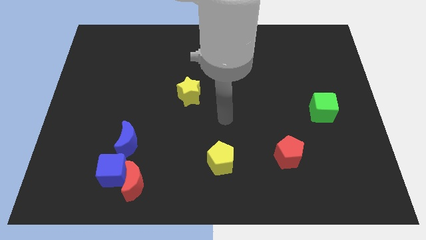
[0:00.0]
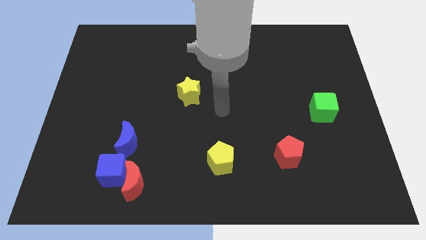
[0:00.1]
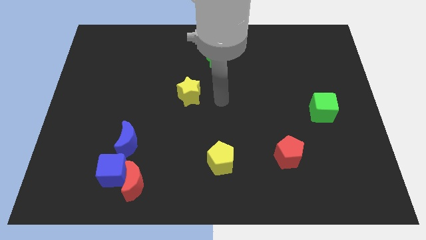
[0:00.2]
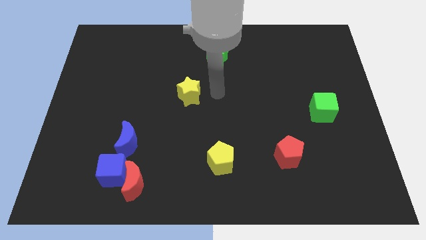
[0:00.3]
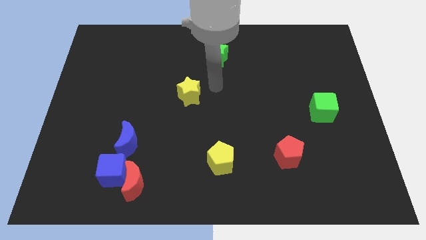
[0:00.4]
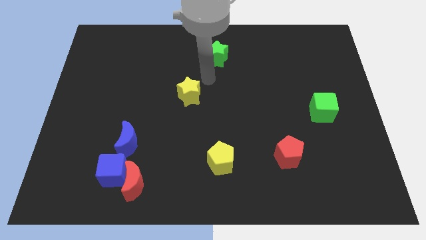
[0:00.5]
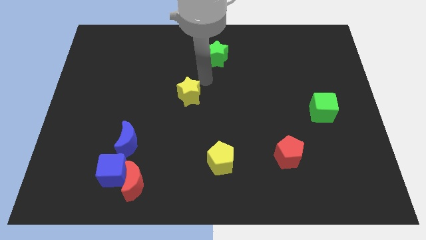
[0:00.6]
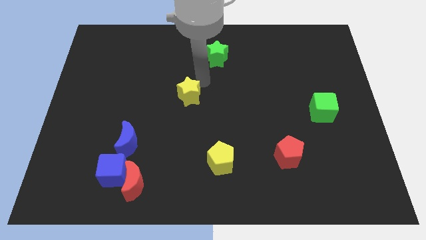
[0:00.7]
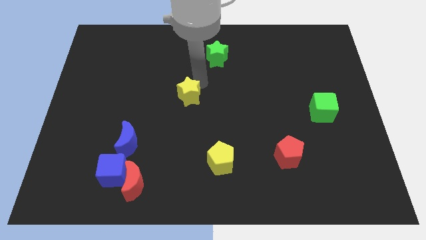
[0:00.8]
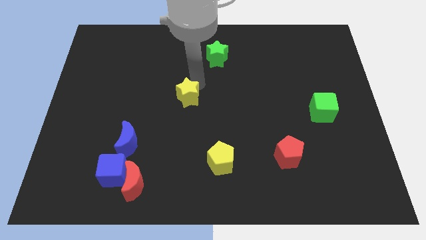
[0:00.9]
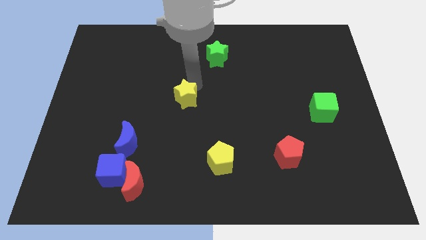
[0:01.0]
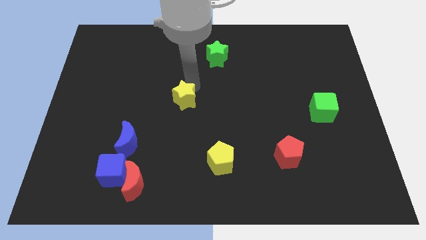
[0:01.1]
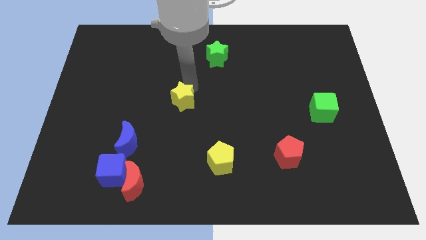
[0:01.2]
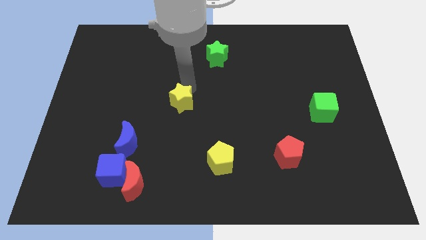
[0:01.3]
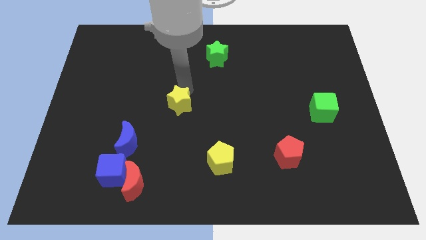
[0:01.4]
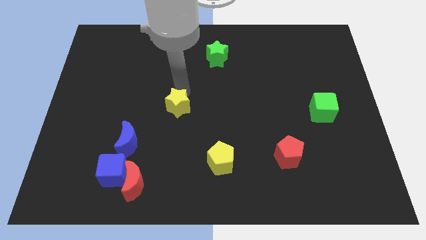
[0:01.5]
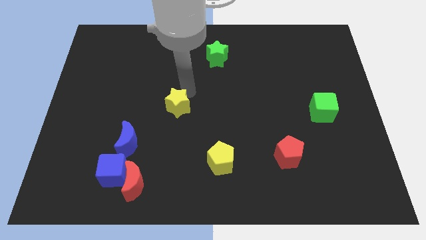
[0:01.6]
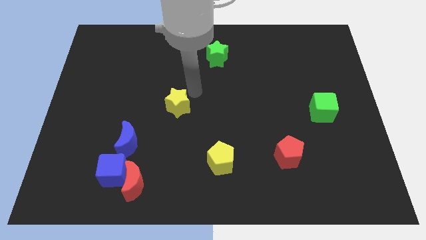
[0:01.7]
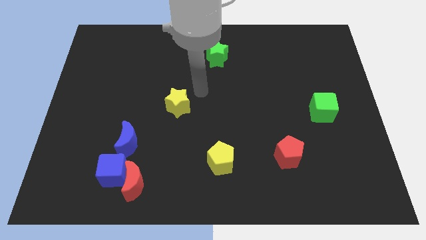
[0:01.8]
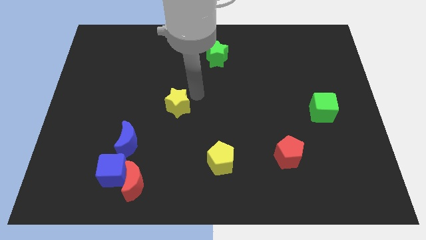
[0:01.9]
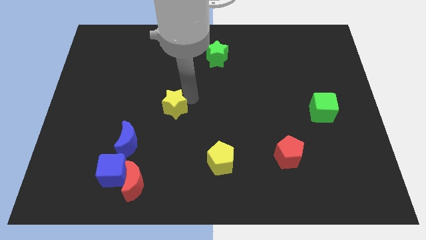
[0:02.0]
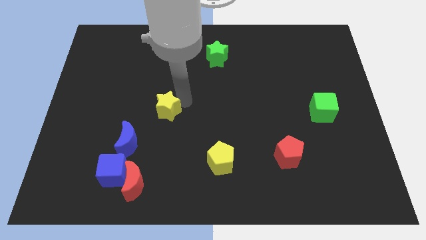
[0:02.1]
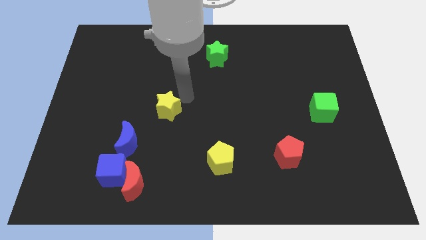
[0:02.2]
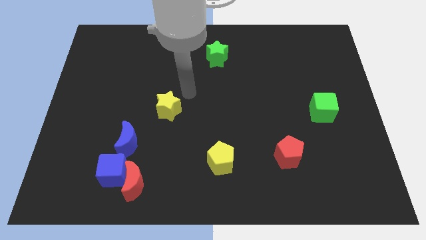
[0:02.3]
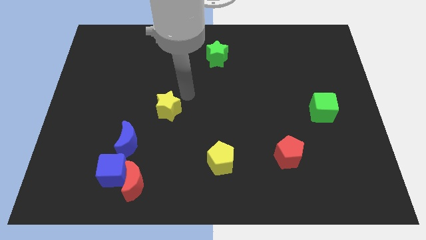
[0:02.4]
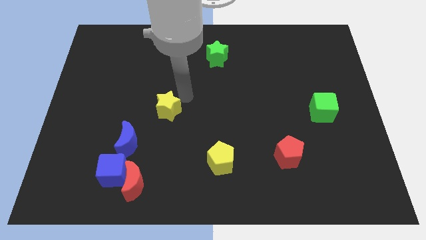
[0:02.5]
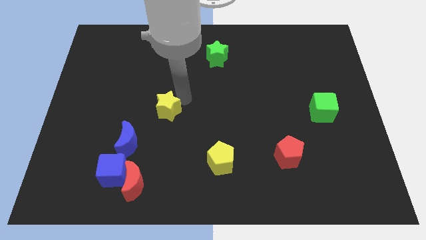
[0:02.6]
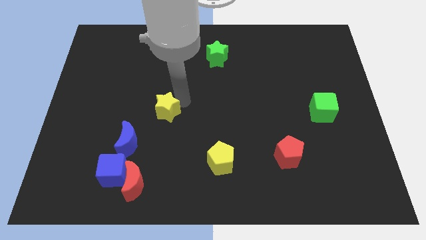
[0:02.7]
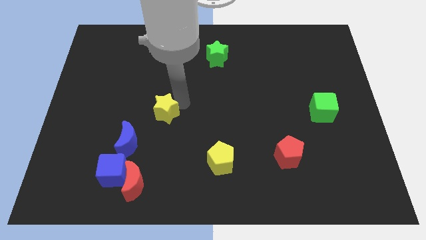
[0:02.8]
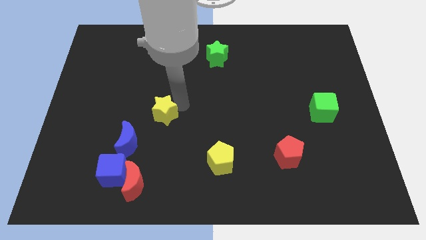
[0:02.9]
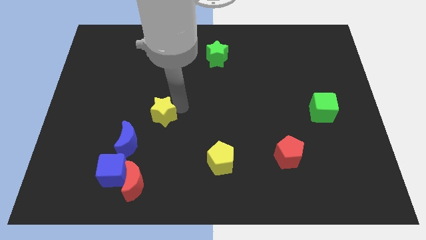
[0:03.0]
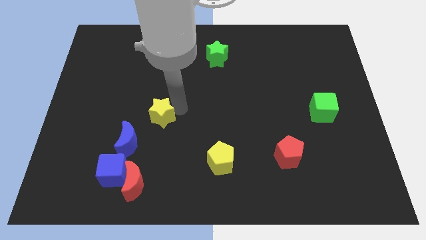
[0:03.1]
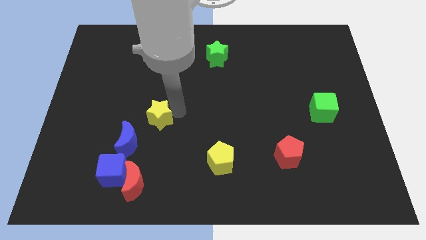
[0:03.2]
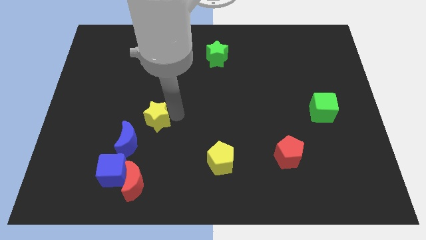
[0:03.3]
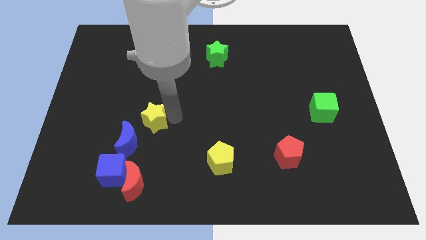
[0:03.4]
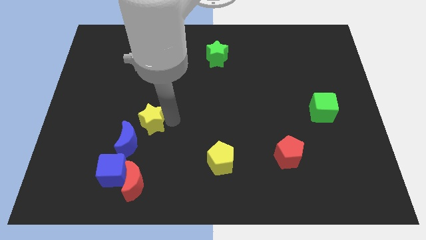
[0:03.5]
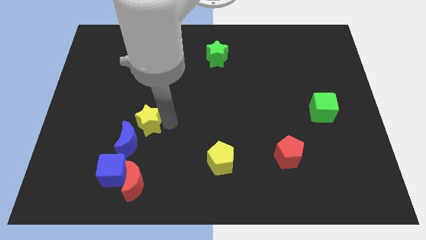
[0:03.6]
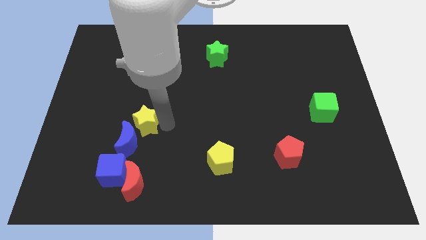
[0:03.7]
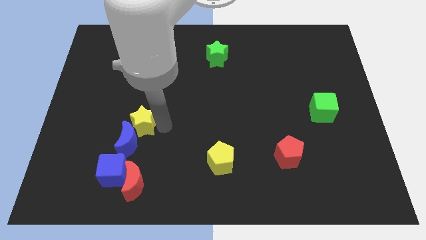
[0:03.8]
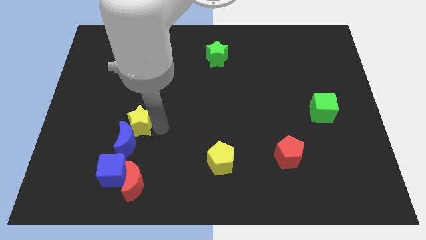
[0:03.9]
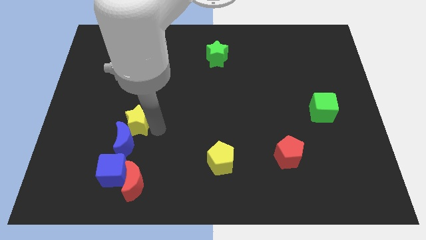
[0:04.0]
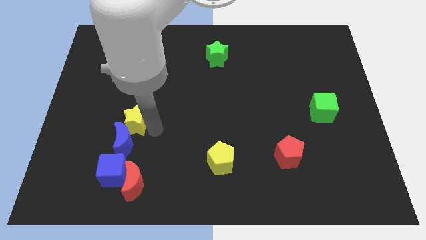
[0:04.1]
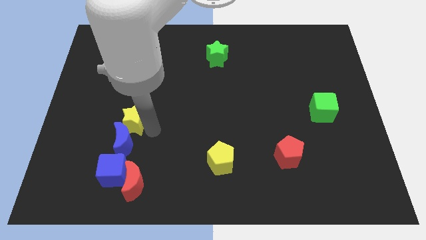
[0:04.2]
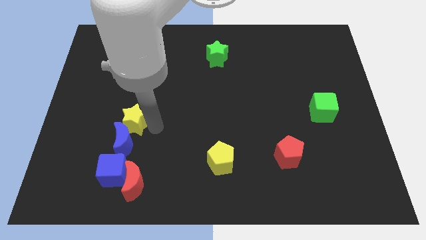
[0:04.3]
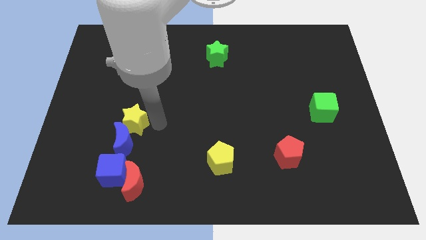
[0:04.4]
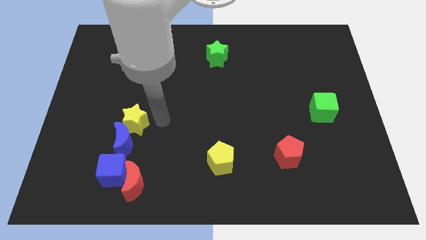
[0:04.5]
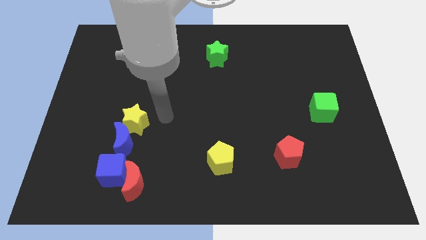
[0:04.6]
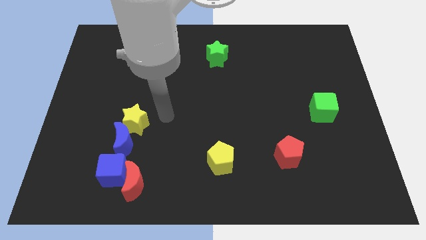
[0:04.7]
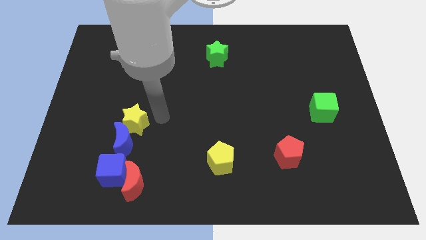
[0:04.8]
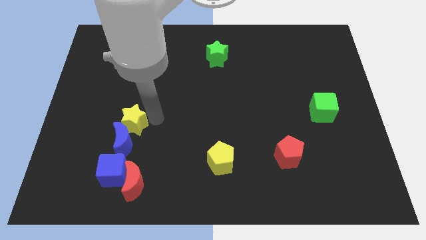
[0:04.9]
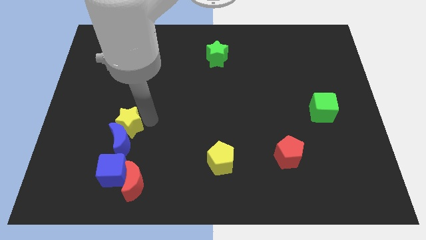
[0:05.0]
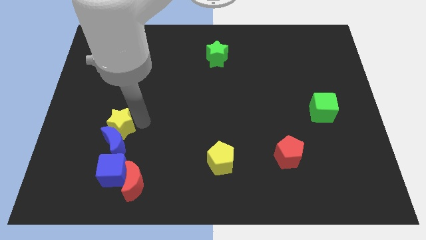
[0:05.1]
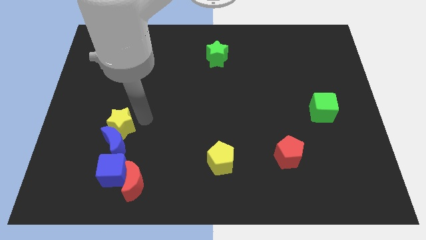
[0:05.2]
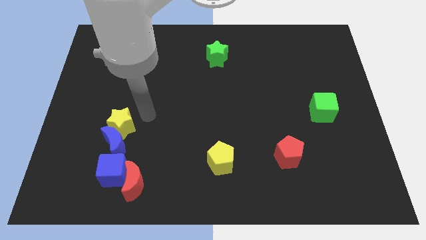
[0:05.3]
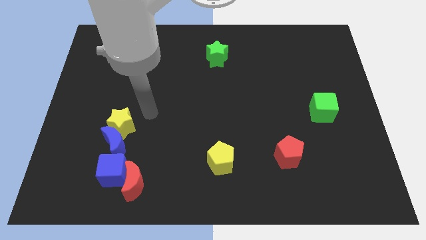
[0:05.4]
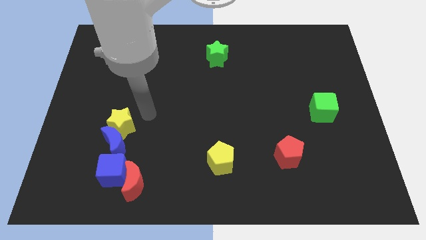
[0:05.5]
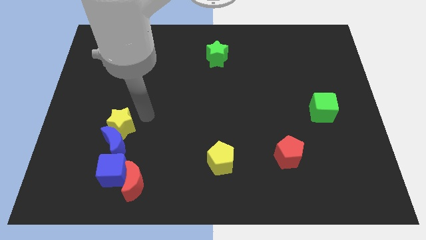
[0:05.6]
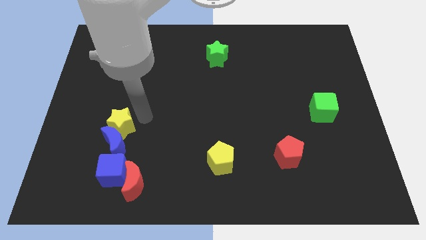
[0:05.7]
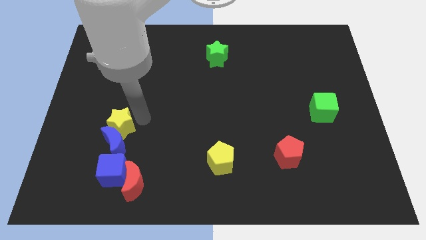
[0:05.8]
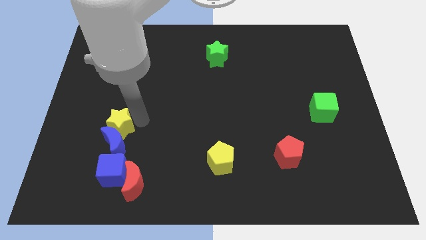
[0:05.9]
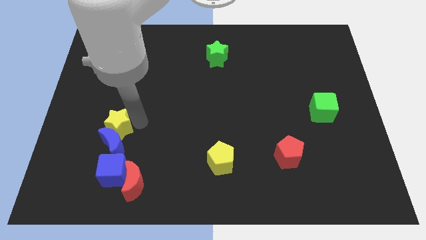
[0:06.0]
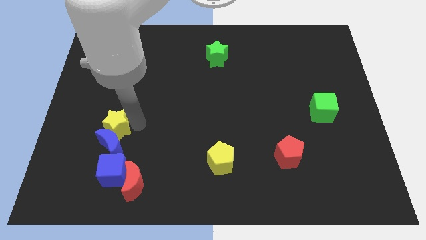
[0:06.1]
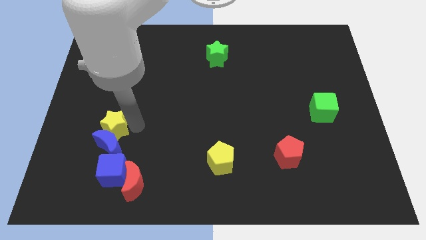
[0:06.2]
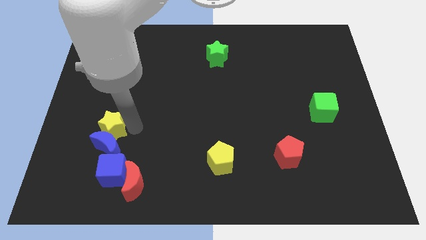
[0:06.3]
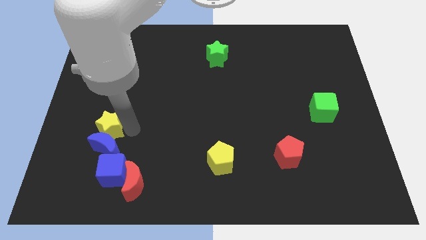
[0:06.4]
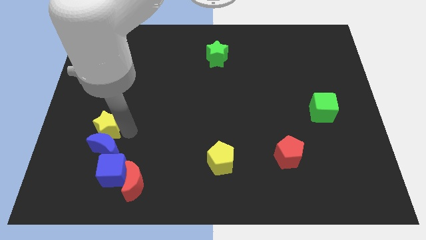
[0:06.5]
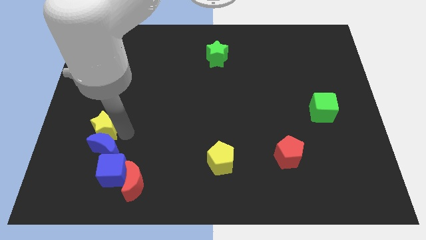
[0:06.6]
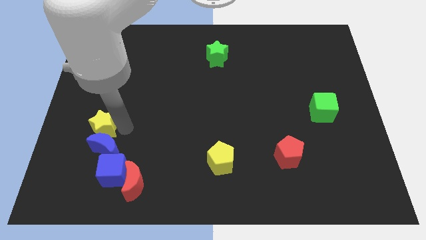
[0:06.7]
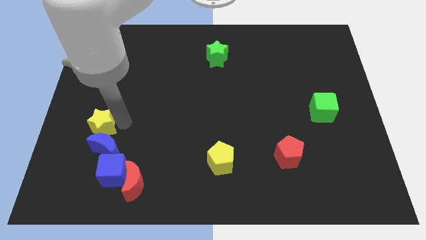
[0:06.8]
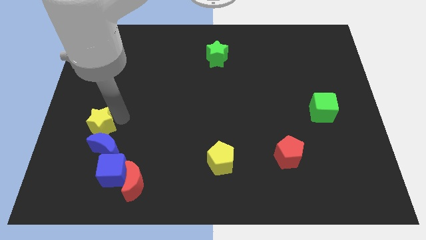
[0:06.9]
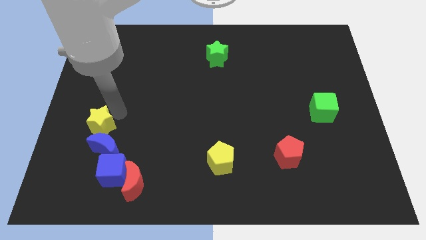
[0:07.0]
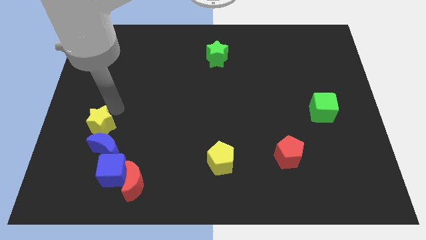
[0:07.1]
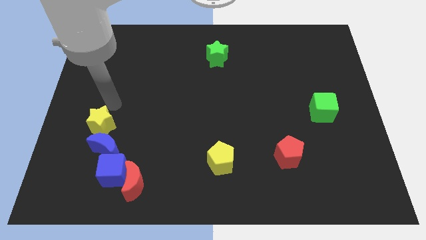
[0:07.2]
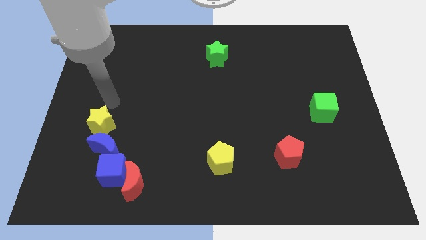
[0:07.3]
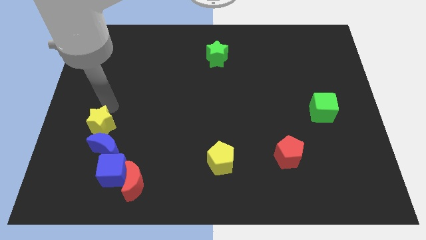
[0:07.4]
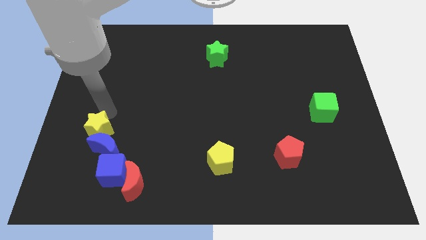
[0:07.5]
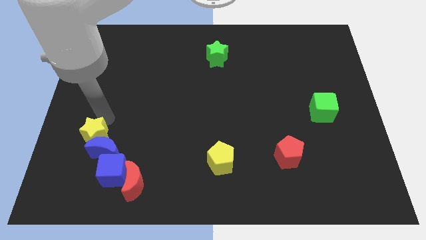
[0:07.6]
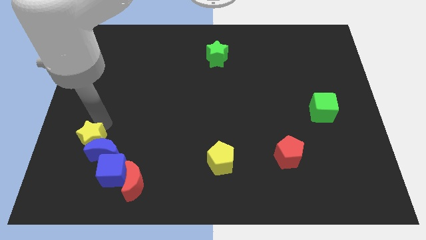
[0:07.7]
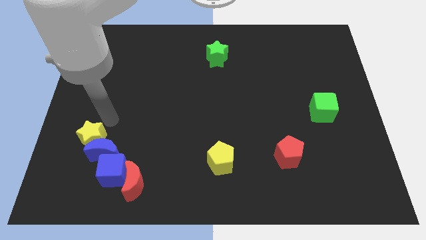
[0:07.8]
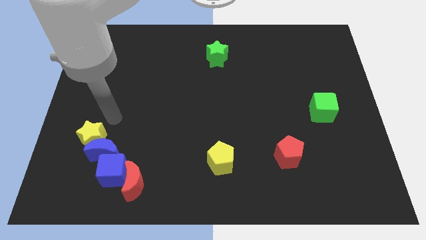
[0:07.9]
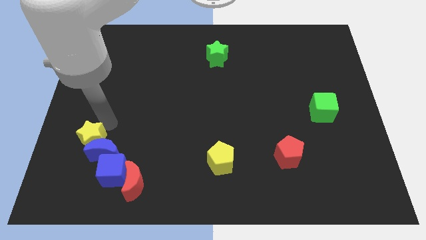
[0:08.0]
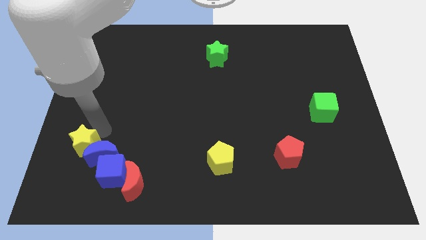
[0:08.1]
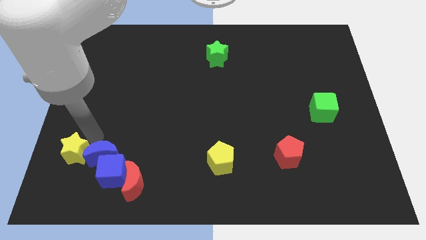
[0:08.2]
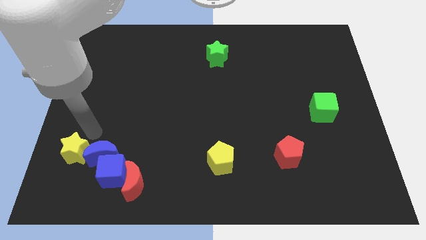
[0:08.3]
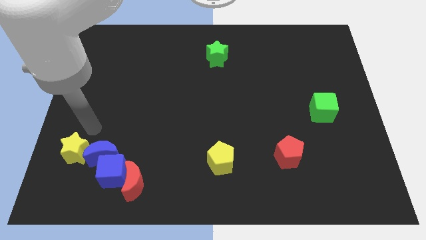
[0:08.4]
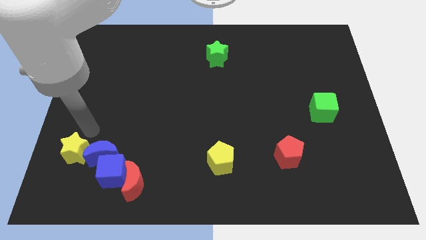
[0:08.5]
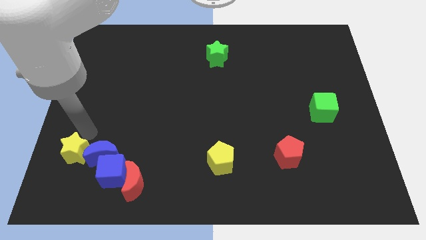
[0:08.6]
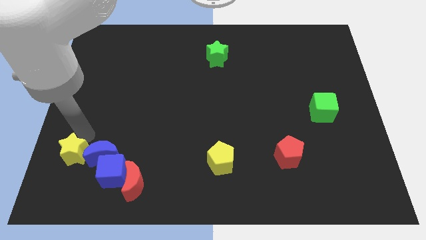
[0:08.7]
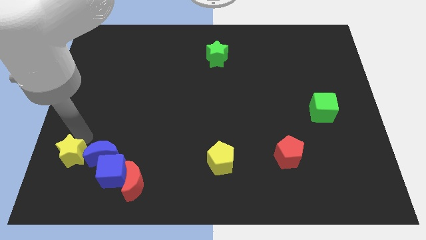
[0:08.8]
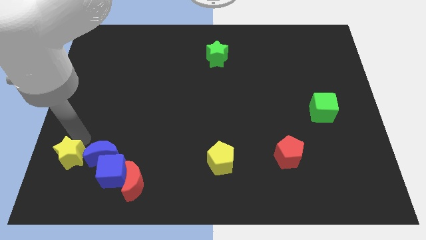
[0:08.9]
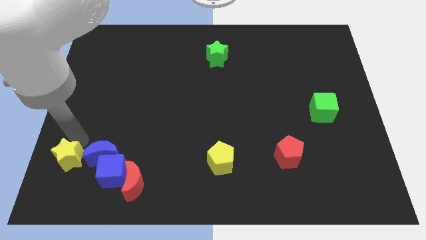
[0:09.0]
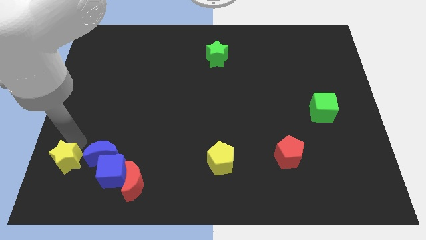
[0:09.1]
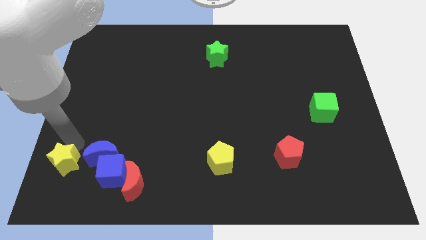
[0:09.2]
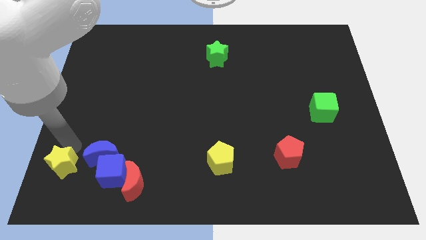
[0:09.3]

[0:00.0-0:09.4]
move the yellow star to the bottom left of the board
